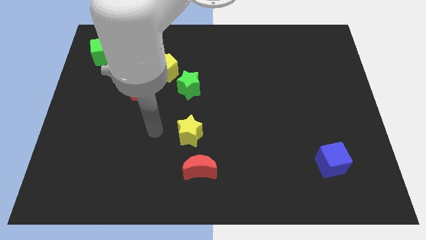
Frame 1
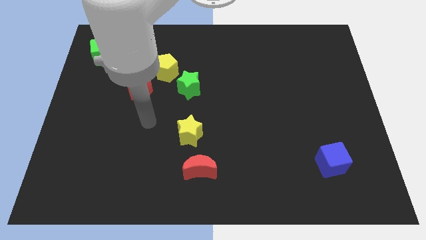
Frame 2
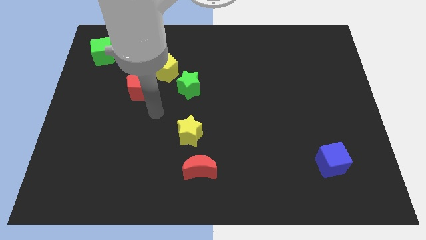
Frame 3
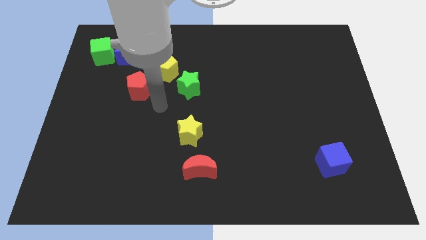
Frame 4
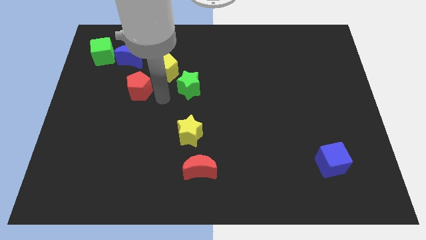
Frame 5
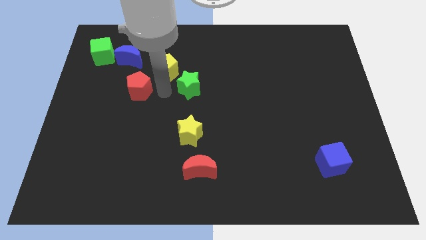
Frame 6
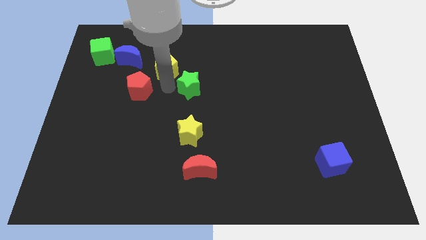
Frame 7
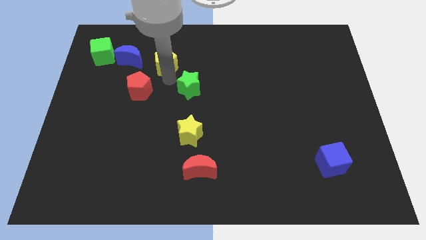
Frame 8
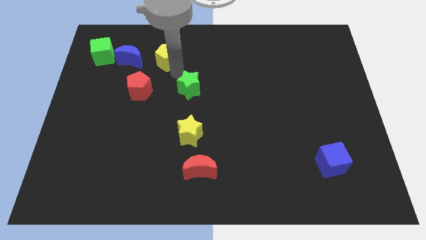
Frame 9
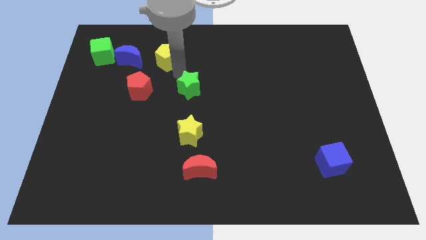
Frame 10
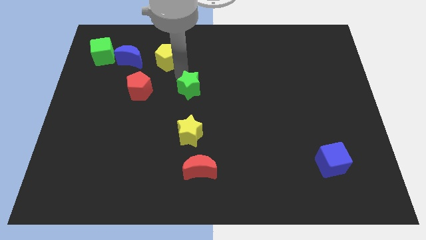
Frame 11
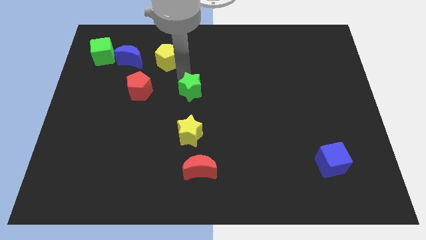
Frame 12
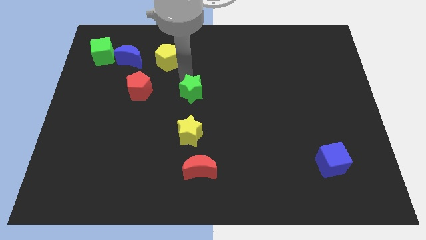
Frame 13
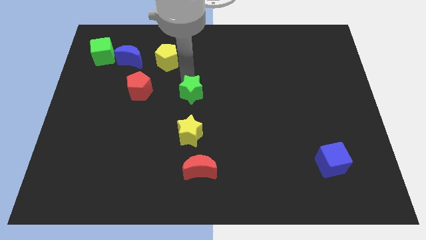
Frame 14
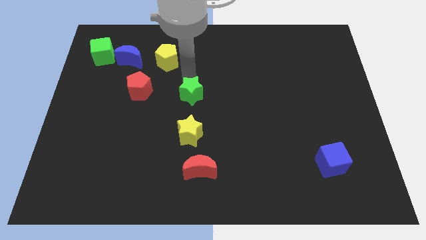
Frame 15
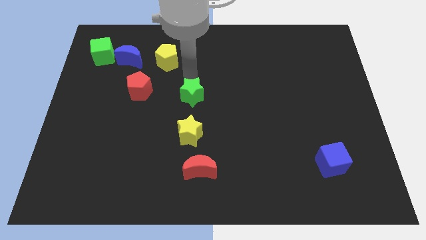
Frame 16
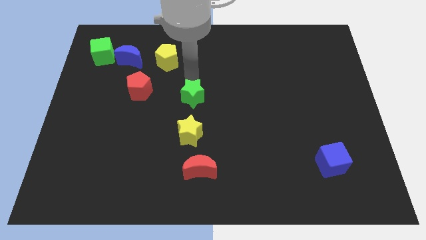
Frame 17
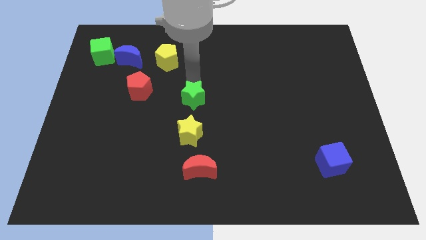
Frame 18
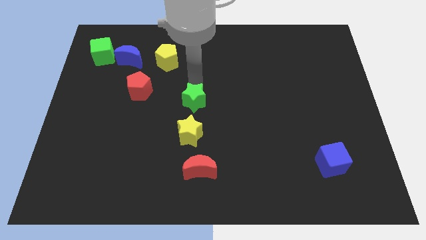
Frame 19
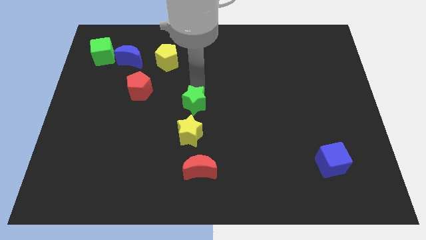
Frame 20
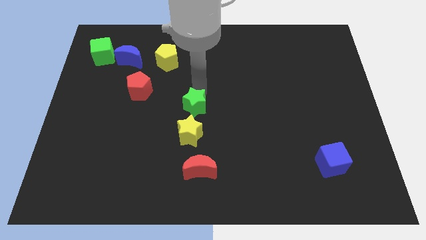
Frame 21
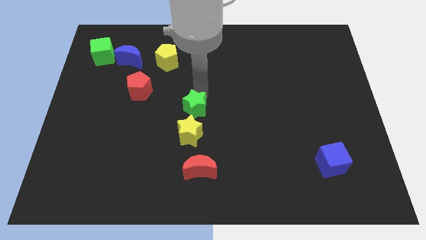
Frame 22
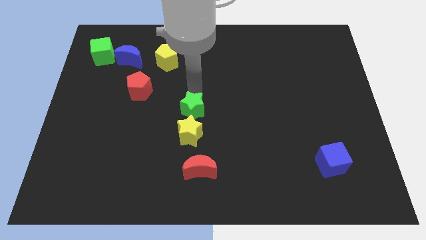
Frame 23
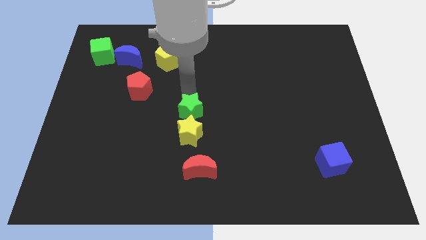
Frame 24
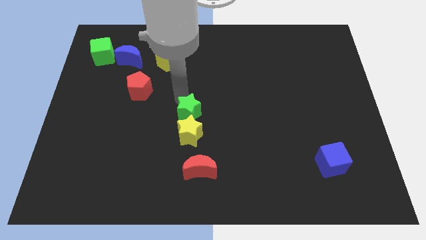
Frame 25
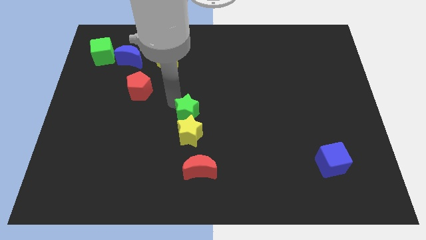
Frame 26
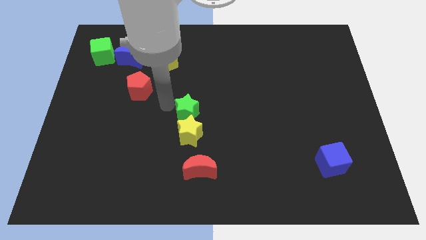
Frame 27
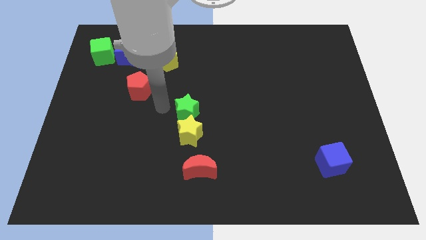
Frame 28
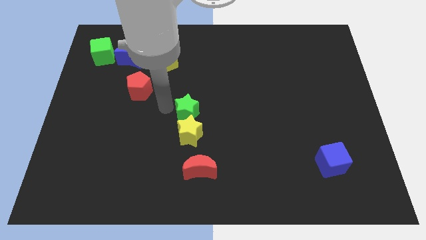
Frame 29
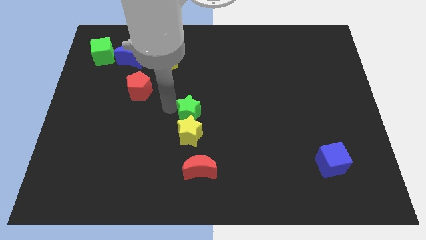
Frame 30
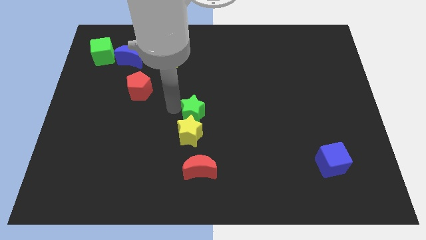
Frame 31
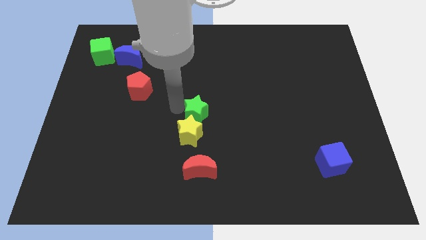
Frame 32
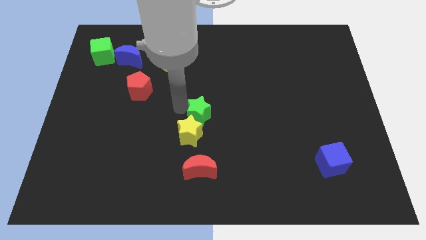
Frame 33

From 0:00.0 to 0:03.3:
slide the green star somewhat down and right

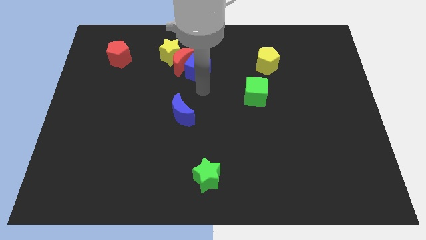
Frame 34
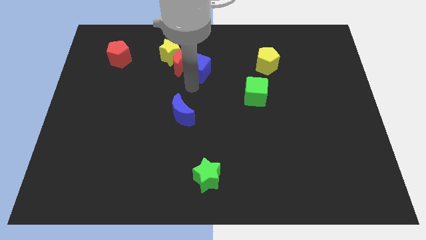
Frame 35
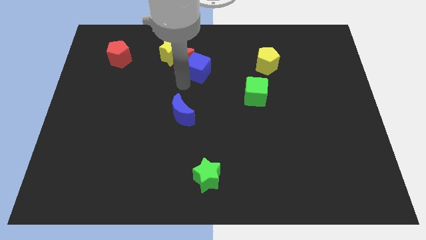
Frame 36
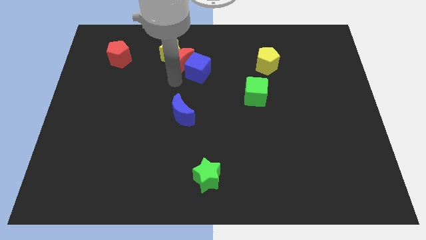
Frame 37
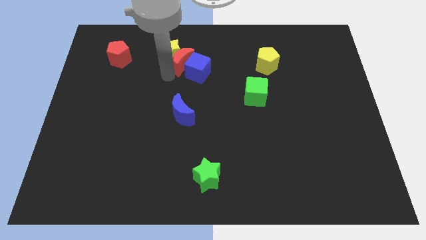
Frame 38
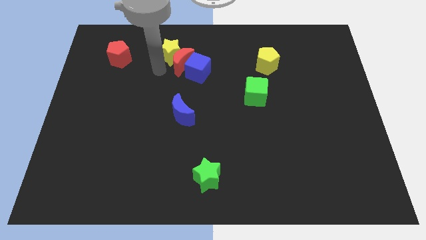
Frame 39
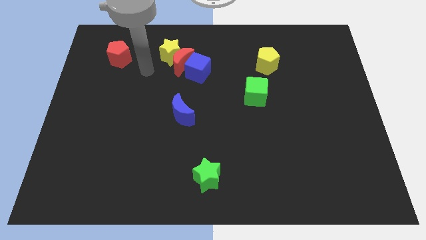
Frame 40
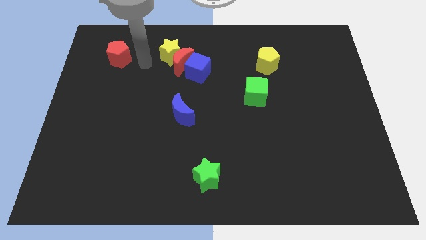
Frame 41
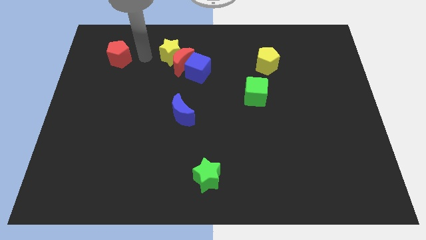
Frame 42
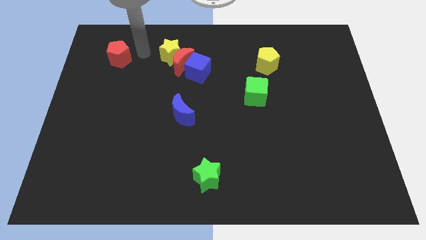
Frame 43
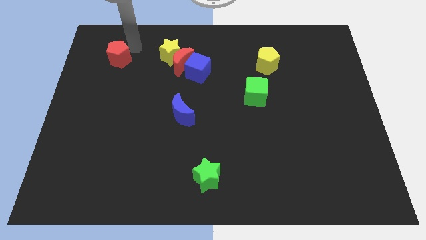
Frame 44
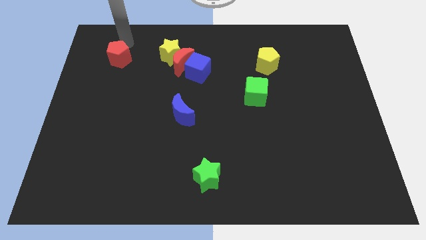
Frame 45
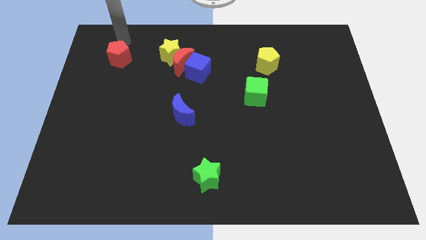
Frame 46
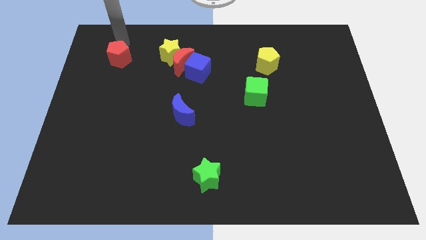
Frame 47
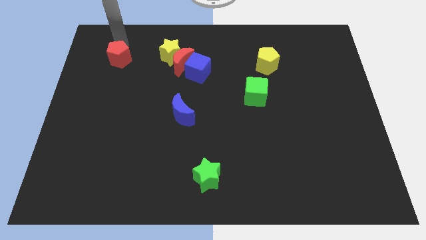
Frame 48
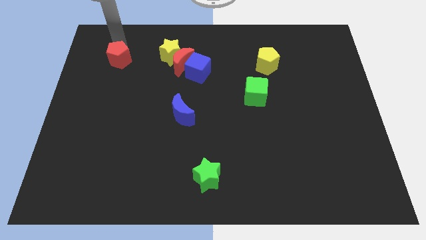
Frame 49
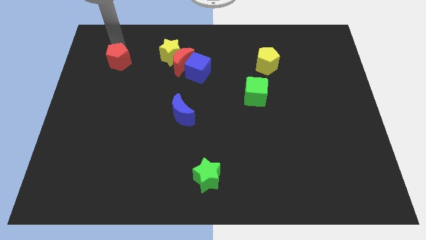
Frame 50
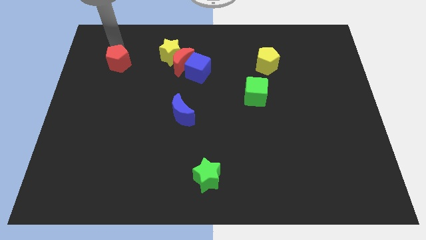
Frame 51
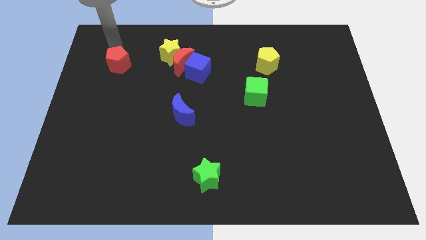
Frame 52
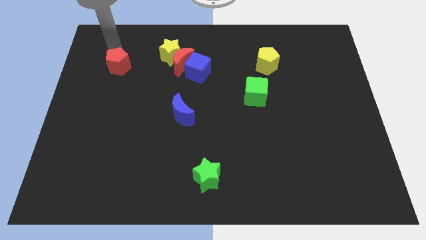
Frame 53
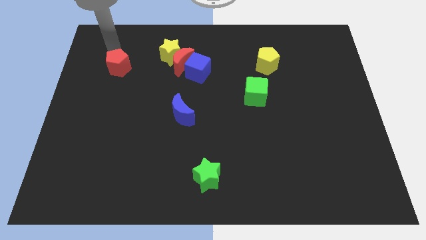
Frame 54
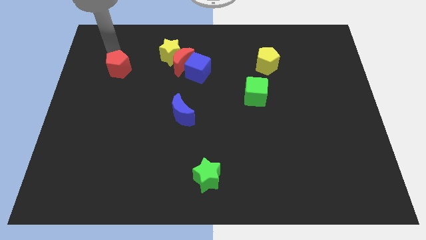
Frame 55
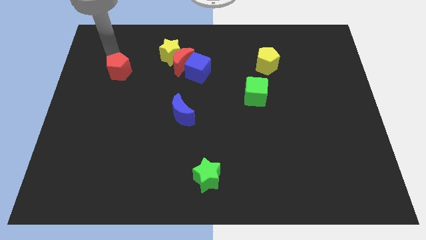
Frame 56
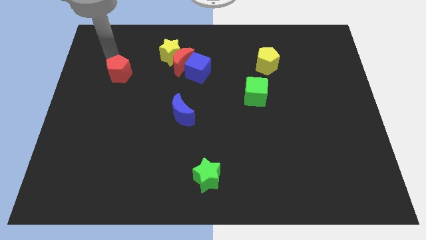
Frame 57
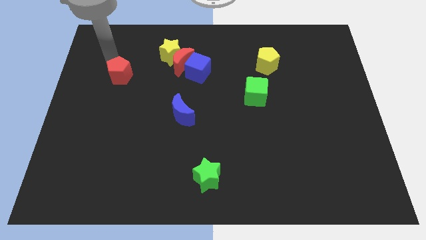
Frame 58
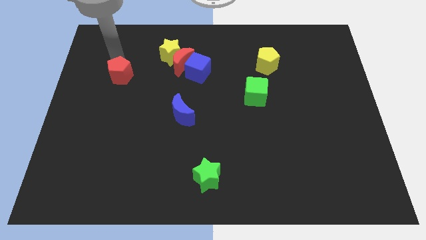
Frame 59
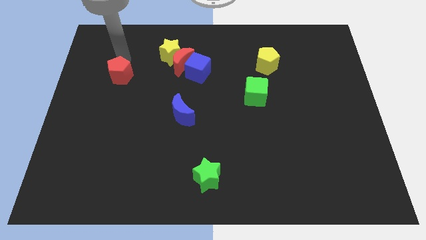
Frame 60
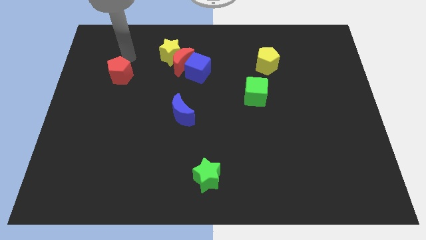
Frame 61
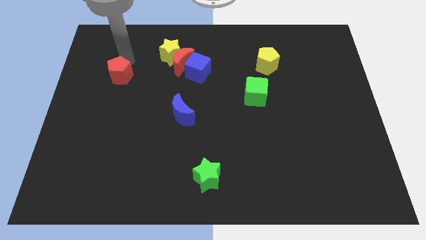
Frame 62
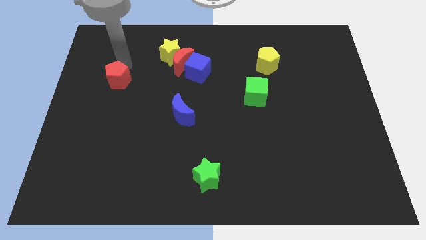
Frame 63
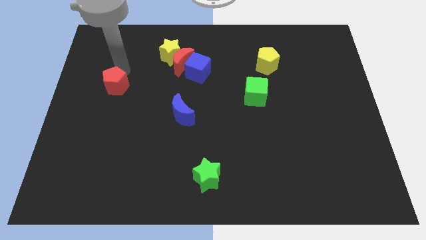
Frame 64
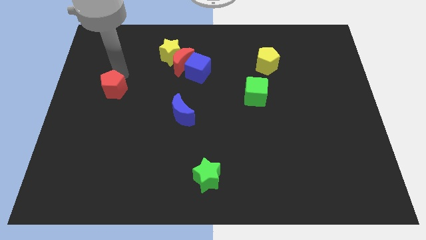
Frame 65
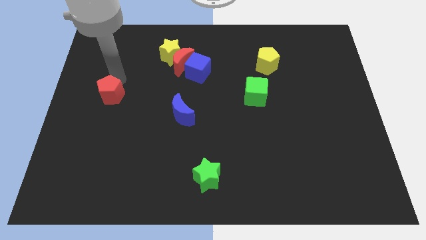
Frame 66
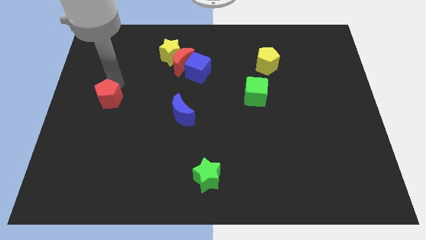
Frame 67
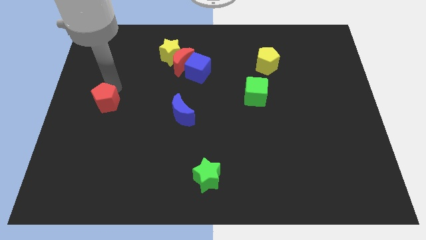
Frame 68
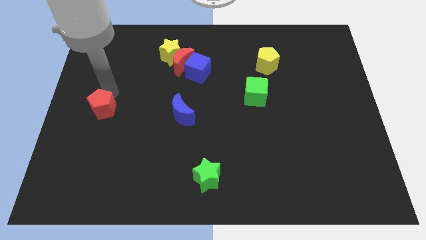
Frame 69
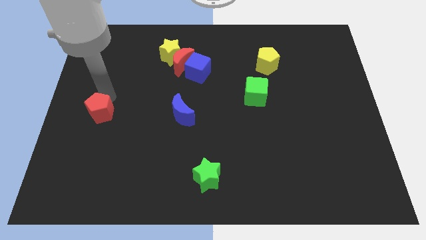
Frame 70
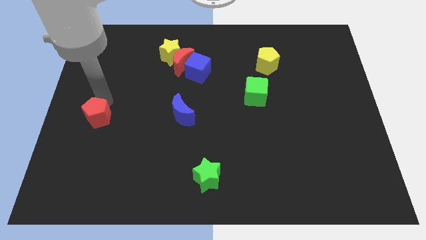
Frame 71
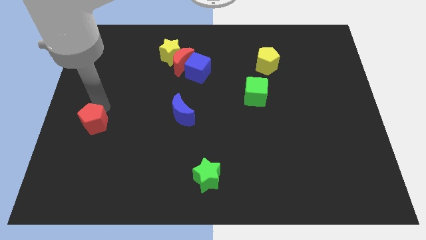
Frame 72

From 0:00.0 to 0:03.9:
push the red pentagon downwards

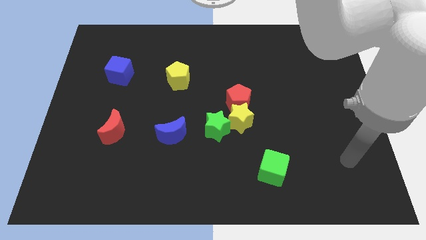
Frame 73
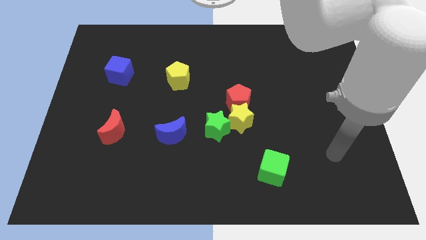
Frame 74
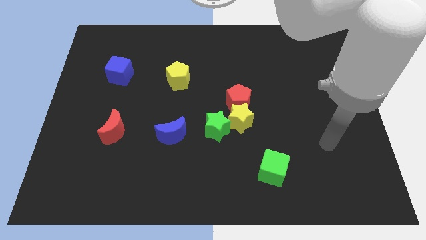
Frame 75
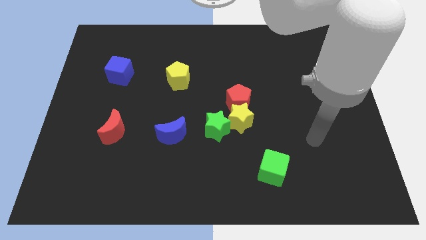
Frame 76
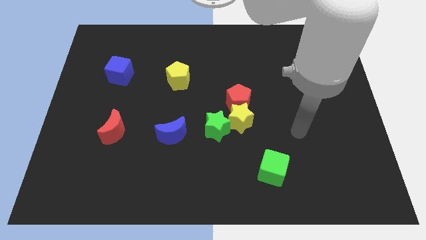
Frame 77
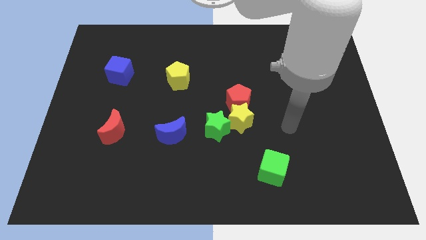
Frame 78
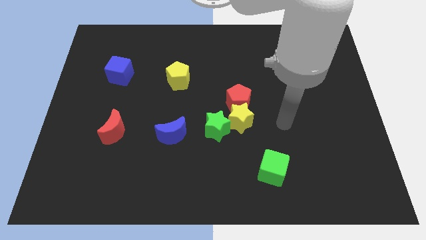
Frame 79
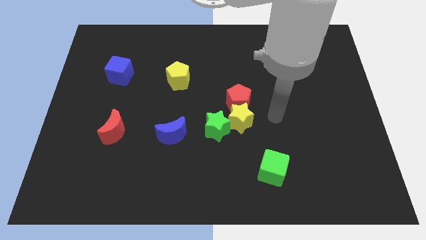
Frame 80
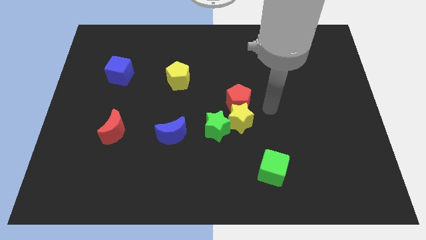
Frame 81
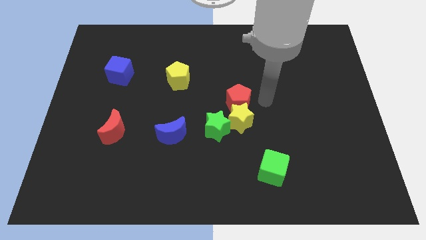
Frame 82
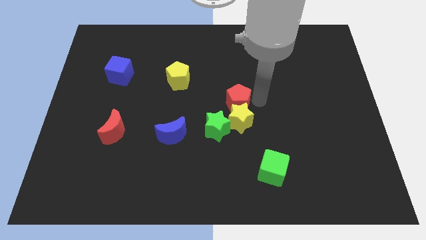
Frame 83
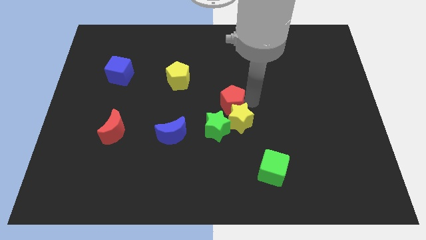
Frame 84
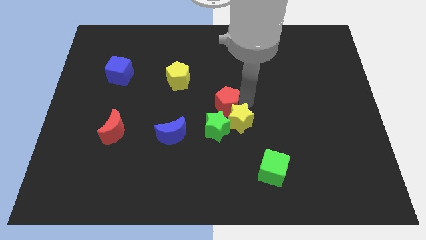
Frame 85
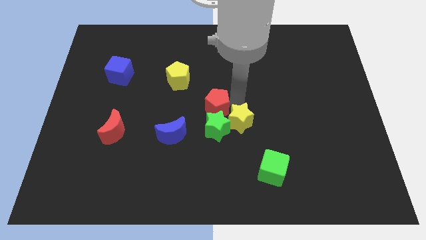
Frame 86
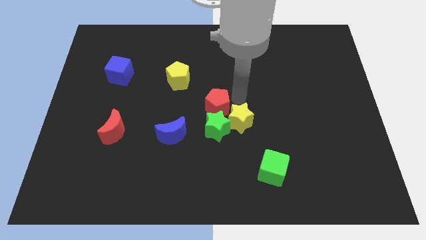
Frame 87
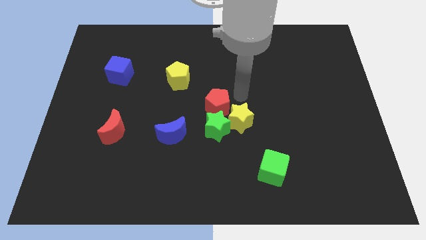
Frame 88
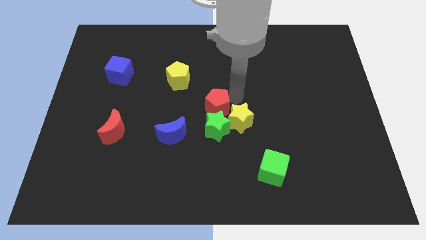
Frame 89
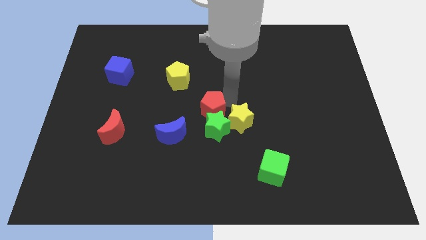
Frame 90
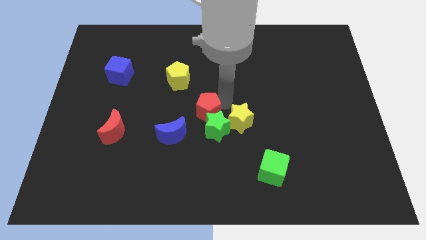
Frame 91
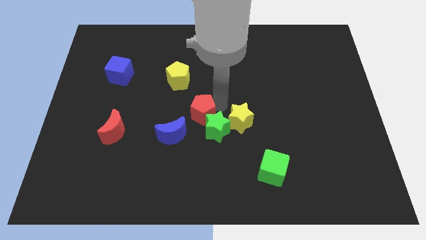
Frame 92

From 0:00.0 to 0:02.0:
push the red pentagon somewhat down and to the left diagonally
